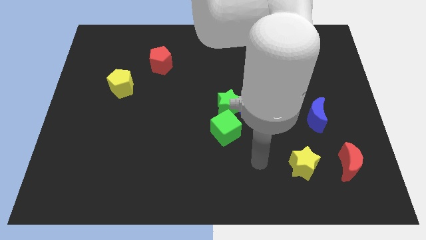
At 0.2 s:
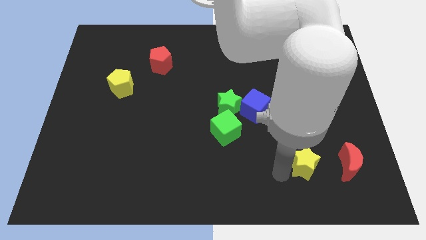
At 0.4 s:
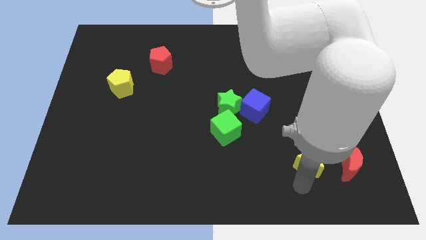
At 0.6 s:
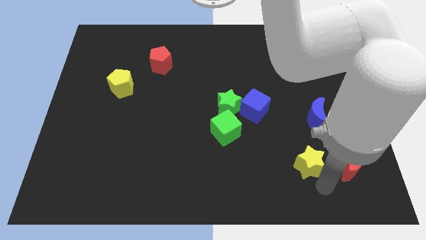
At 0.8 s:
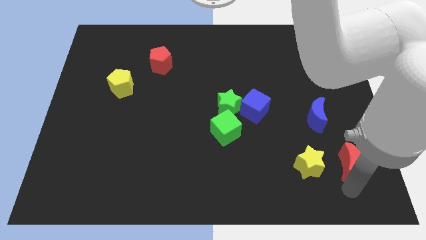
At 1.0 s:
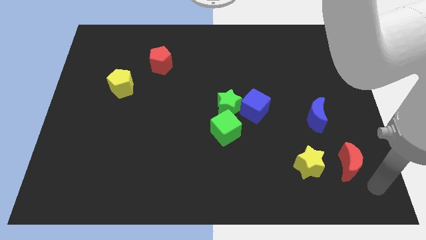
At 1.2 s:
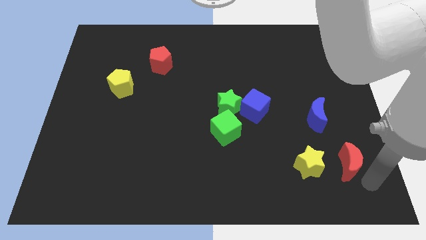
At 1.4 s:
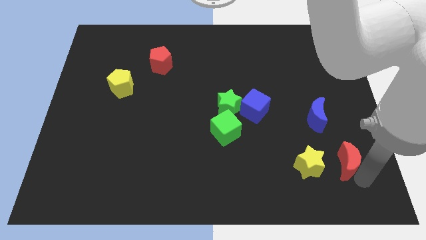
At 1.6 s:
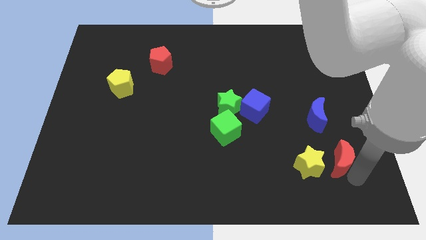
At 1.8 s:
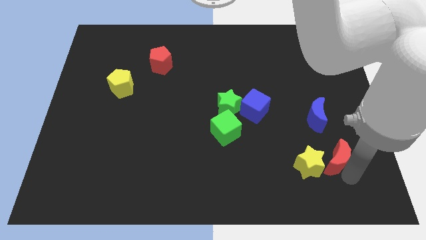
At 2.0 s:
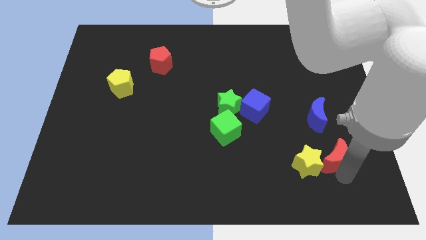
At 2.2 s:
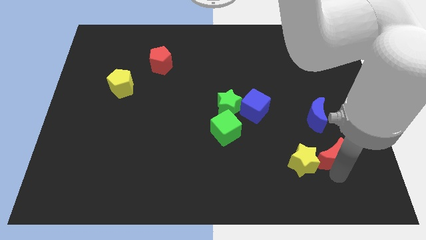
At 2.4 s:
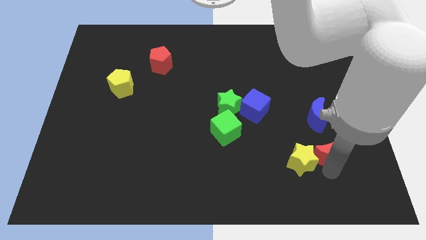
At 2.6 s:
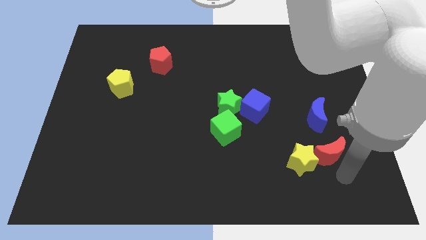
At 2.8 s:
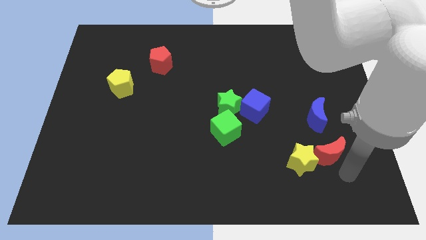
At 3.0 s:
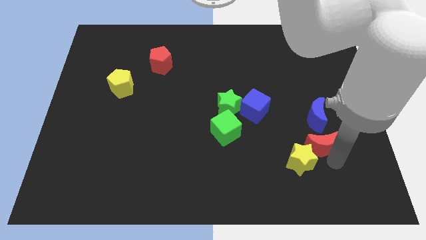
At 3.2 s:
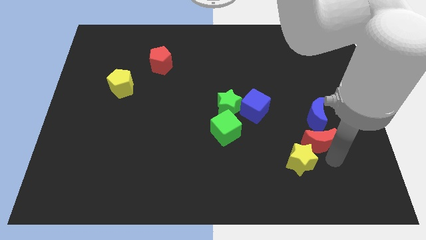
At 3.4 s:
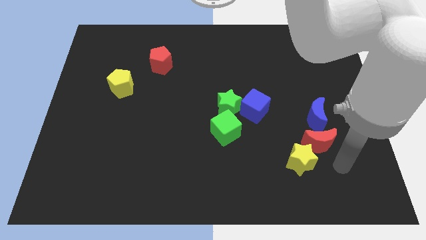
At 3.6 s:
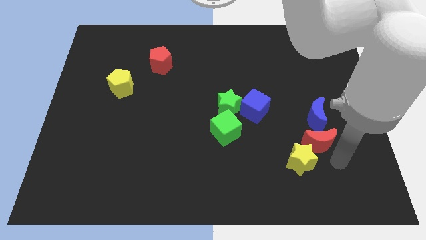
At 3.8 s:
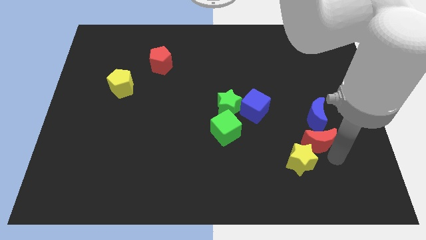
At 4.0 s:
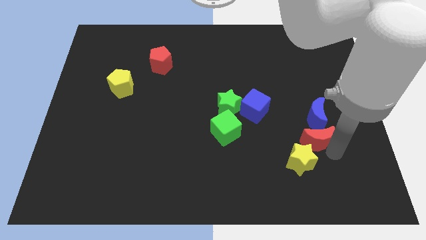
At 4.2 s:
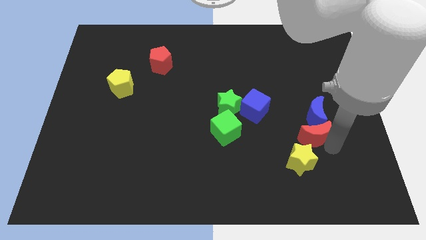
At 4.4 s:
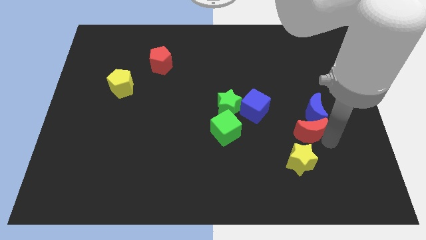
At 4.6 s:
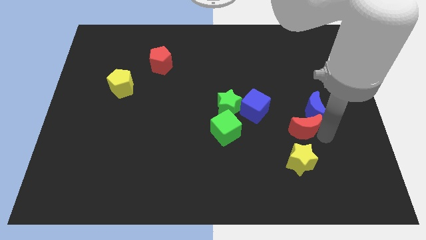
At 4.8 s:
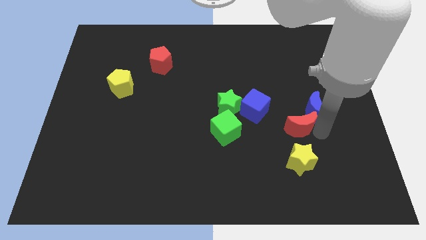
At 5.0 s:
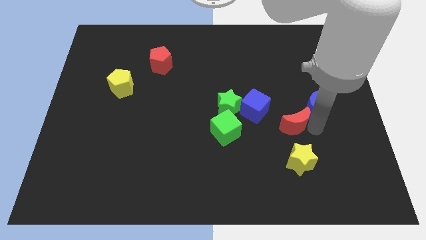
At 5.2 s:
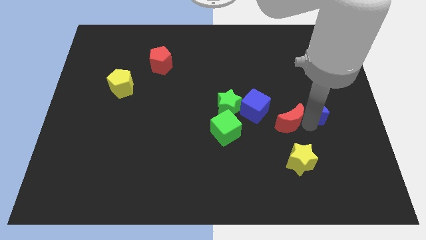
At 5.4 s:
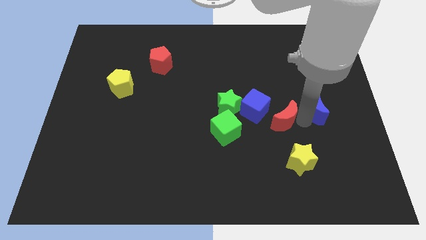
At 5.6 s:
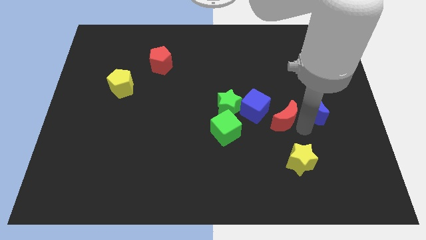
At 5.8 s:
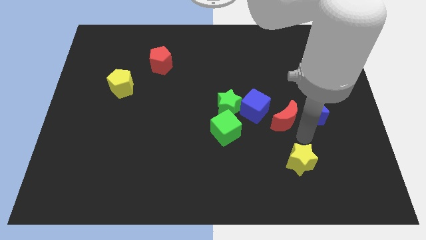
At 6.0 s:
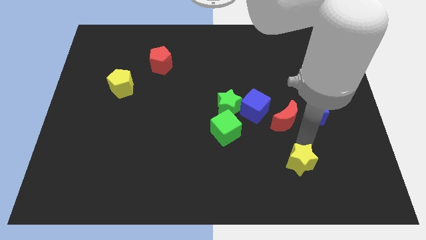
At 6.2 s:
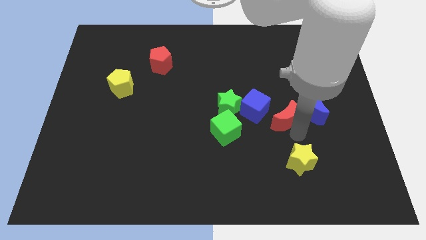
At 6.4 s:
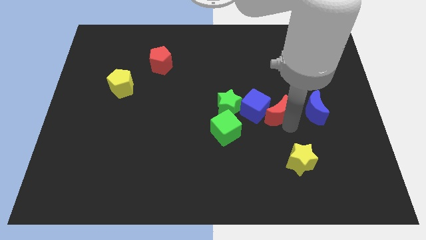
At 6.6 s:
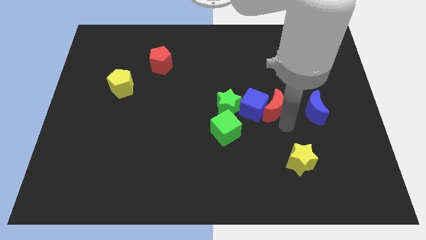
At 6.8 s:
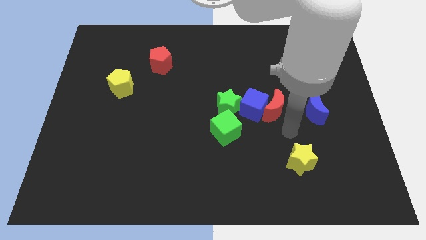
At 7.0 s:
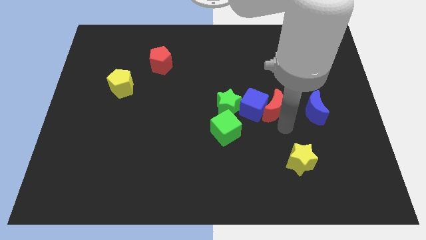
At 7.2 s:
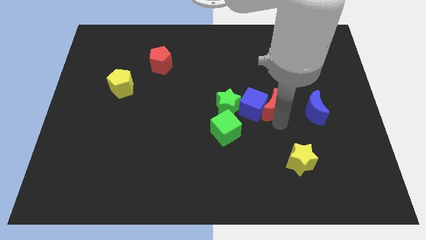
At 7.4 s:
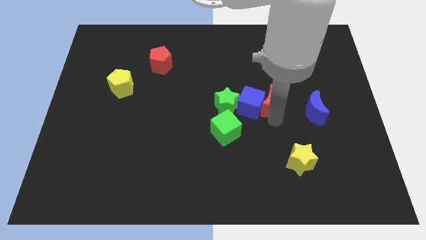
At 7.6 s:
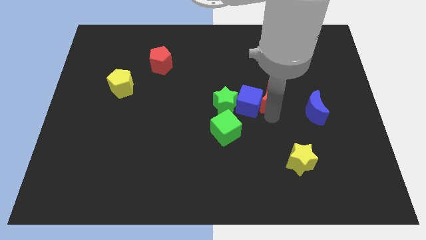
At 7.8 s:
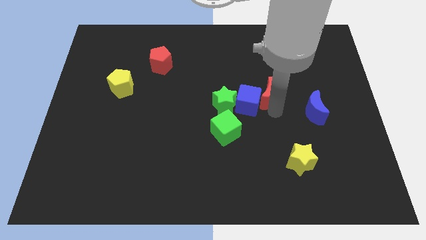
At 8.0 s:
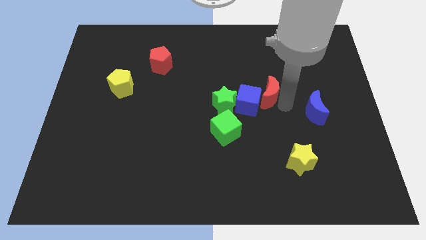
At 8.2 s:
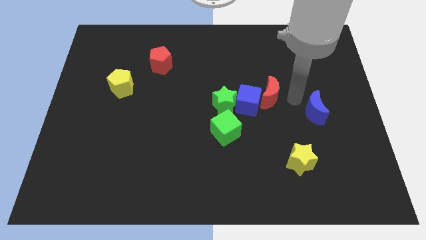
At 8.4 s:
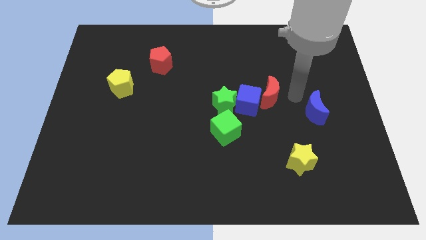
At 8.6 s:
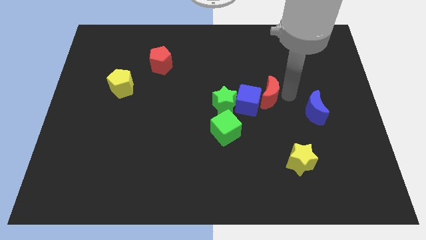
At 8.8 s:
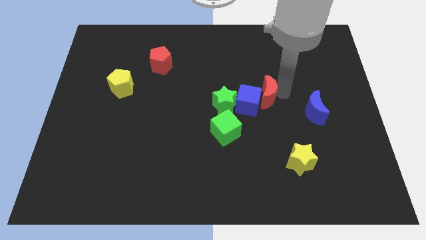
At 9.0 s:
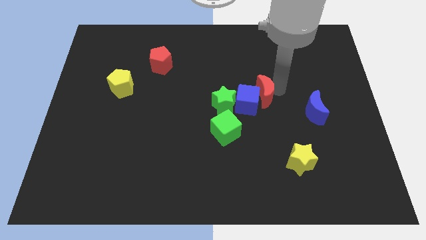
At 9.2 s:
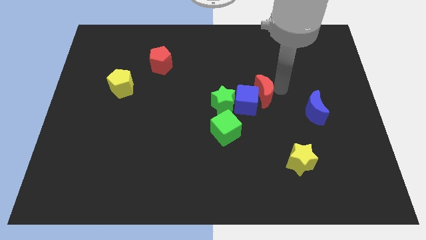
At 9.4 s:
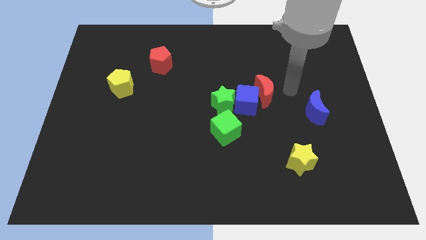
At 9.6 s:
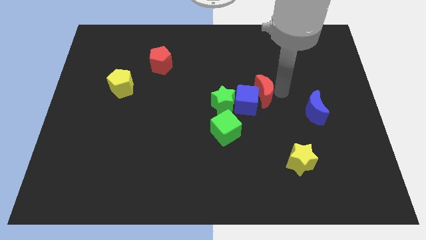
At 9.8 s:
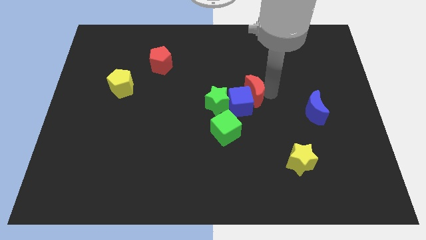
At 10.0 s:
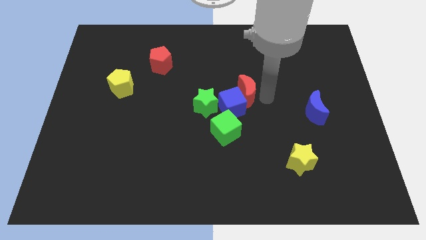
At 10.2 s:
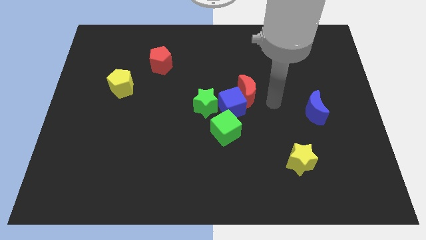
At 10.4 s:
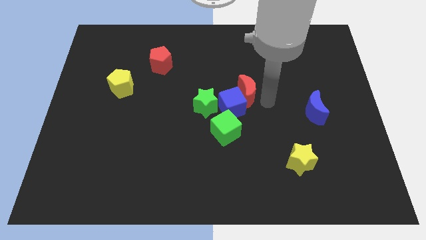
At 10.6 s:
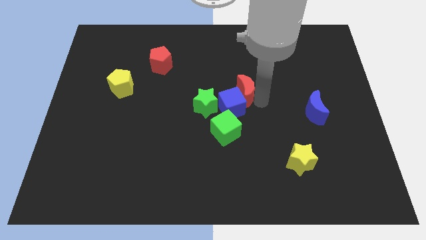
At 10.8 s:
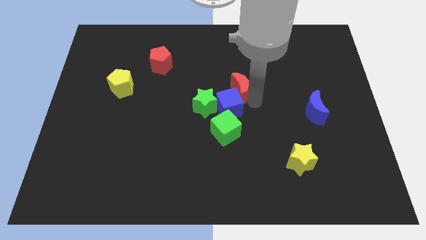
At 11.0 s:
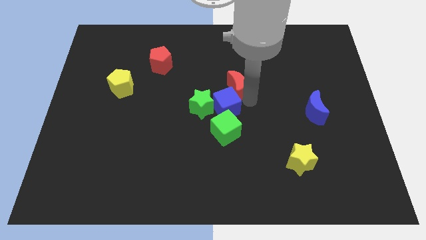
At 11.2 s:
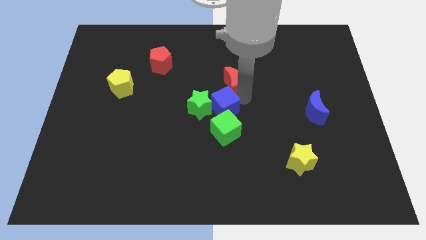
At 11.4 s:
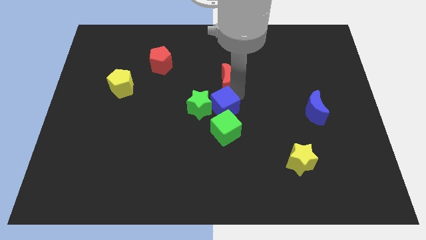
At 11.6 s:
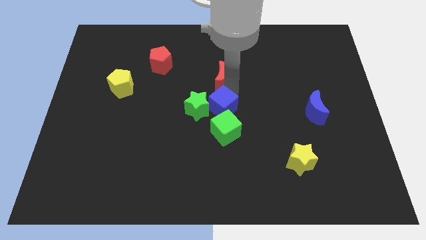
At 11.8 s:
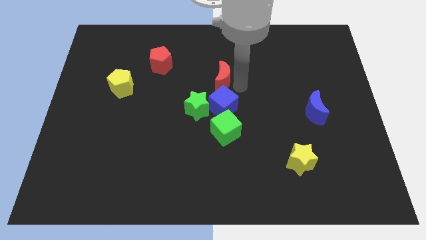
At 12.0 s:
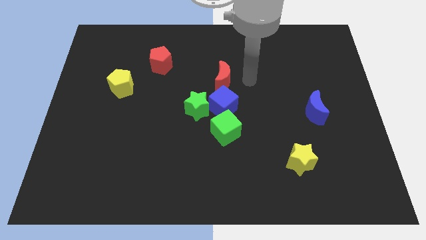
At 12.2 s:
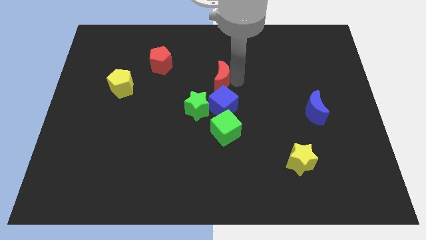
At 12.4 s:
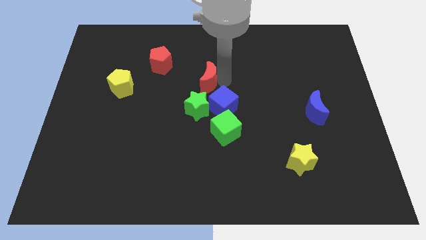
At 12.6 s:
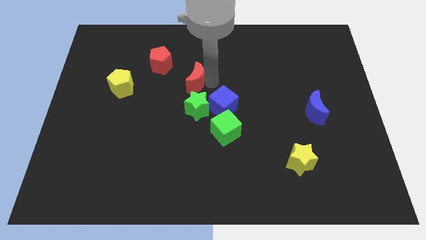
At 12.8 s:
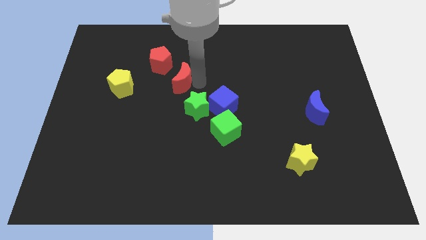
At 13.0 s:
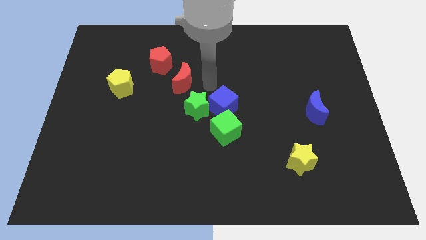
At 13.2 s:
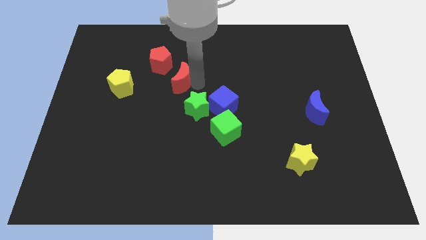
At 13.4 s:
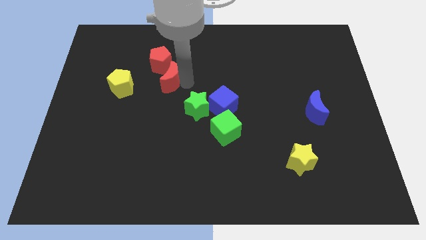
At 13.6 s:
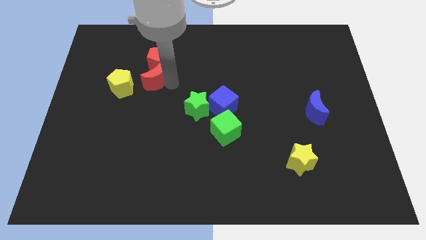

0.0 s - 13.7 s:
slide the red moon to the top right side of the yellow pentagon
